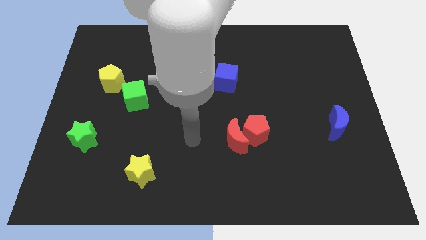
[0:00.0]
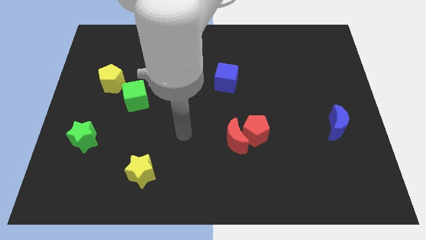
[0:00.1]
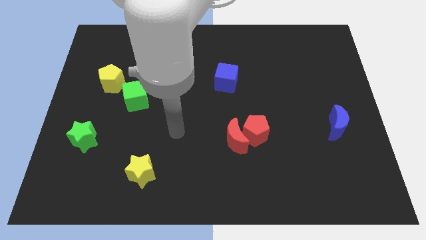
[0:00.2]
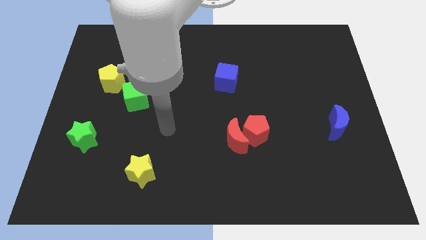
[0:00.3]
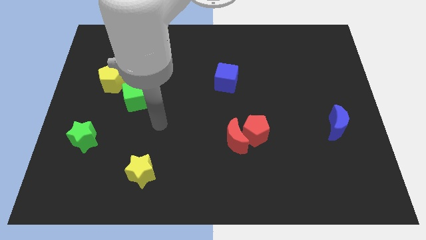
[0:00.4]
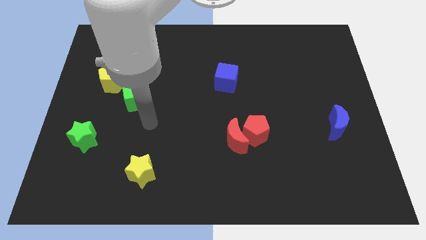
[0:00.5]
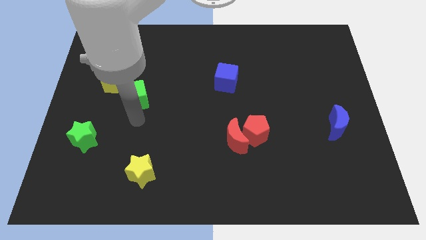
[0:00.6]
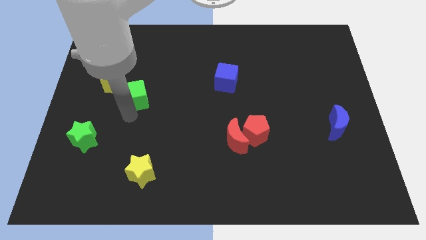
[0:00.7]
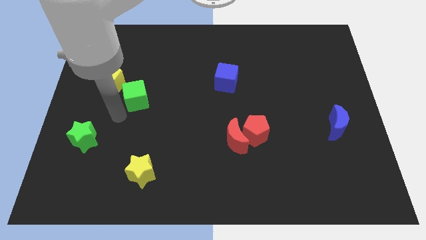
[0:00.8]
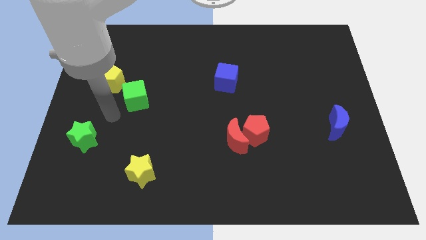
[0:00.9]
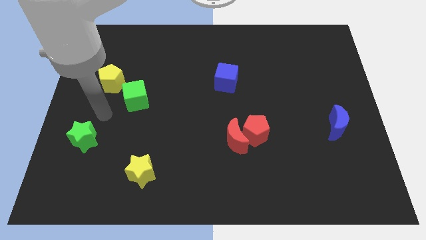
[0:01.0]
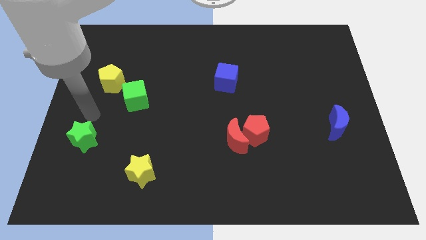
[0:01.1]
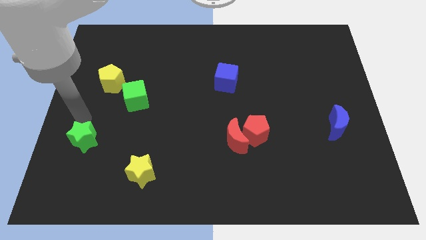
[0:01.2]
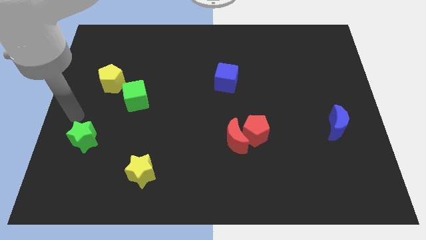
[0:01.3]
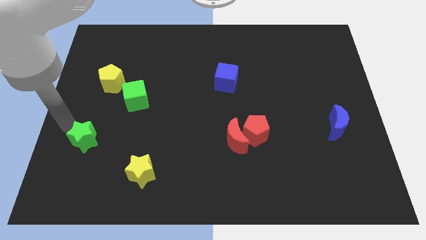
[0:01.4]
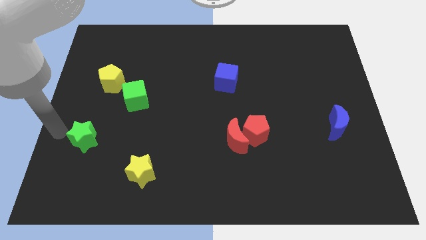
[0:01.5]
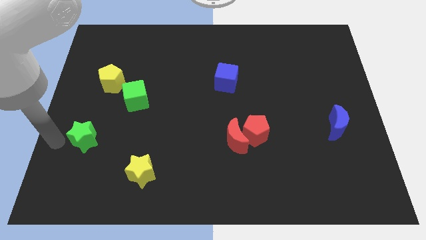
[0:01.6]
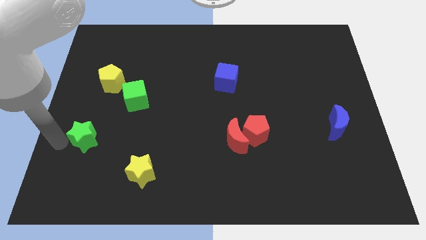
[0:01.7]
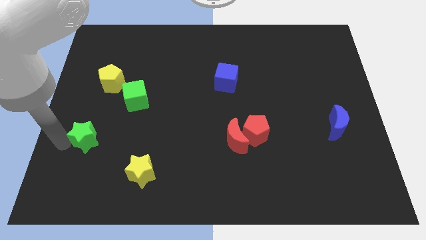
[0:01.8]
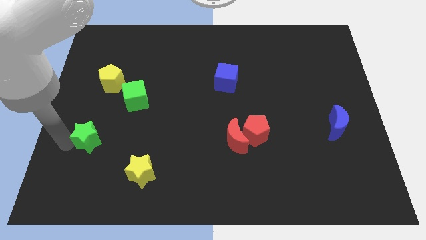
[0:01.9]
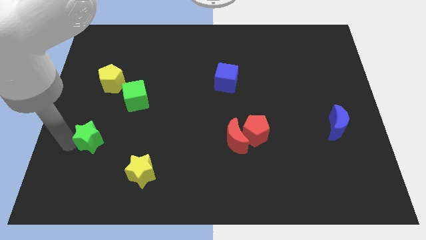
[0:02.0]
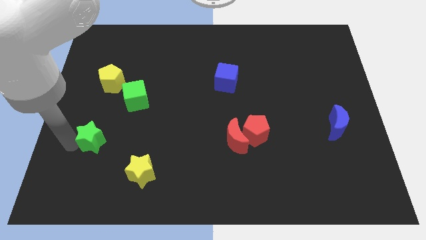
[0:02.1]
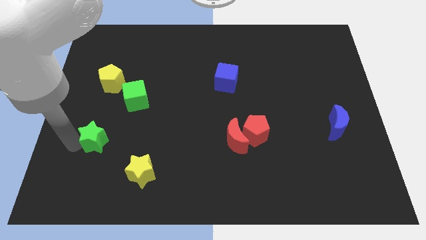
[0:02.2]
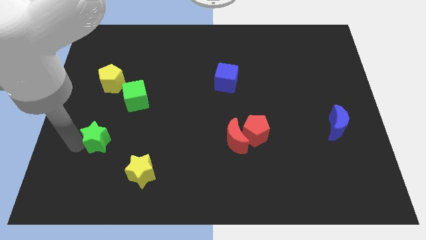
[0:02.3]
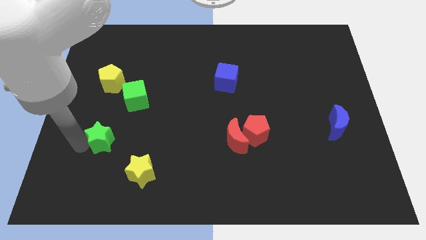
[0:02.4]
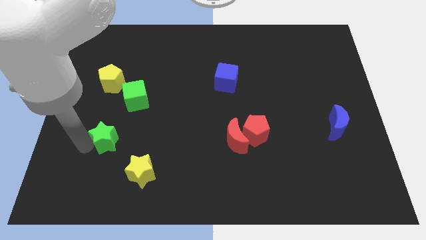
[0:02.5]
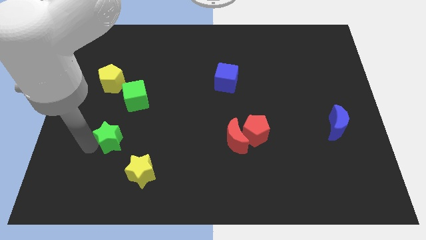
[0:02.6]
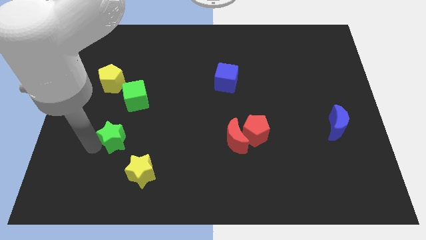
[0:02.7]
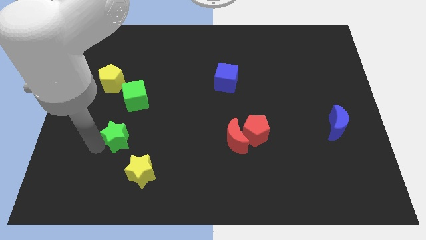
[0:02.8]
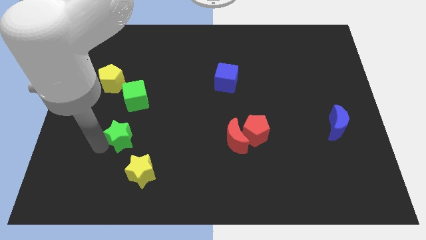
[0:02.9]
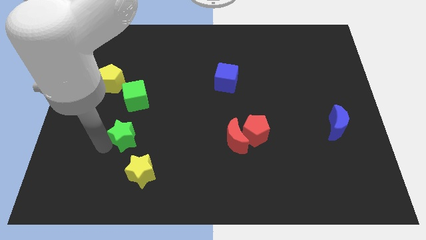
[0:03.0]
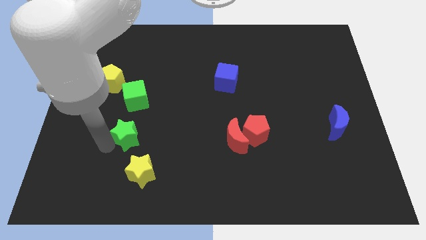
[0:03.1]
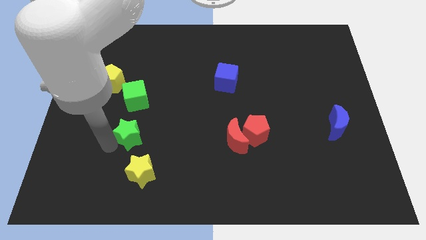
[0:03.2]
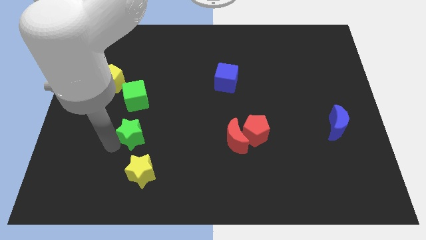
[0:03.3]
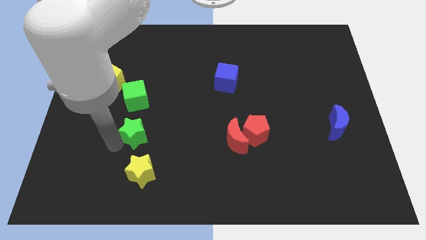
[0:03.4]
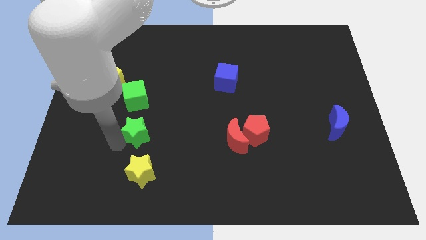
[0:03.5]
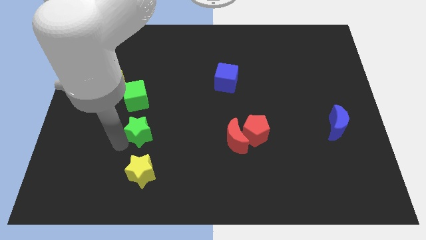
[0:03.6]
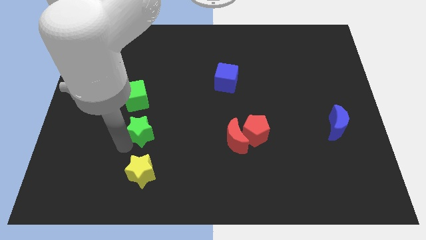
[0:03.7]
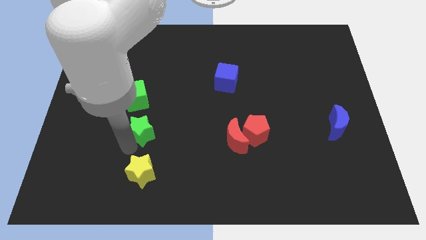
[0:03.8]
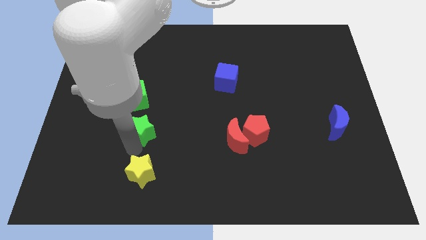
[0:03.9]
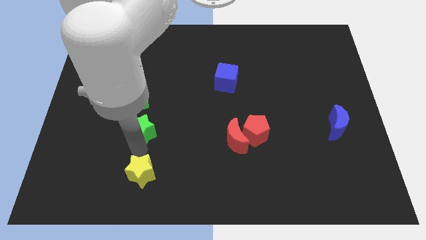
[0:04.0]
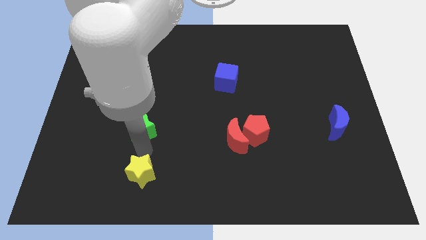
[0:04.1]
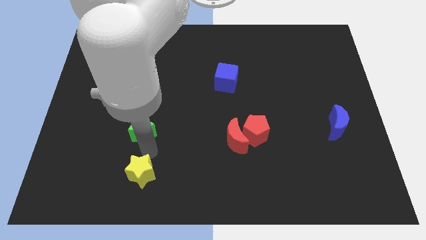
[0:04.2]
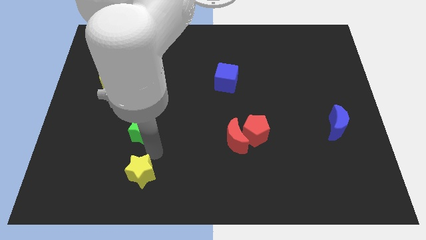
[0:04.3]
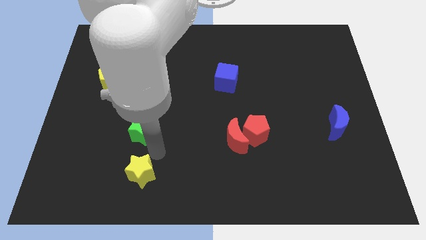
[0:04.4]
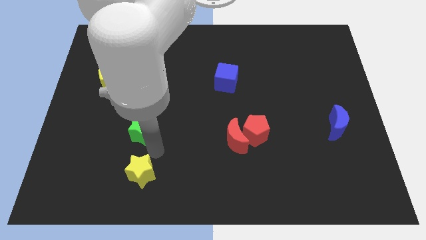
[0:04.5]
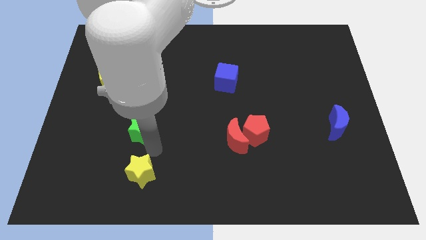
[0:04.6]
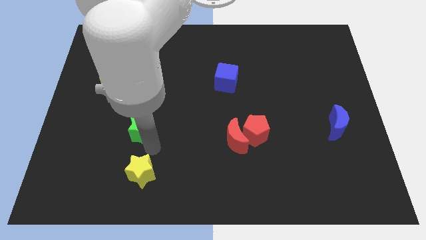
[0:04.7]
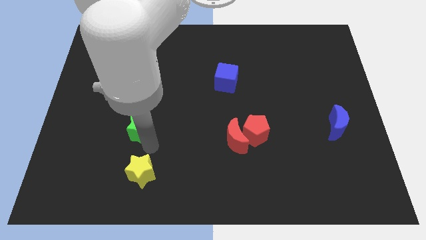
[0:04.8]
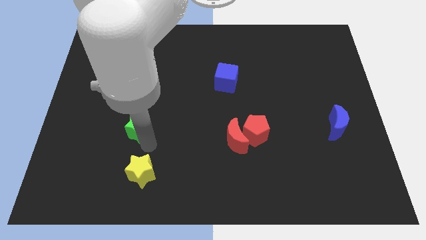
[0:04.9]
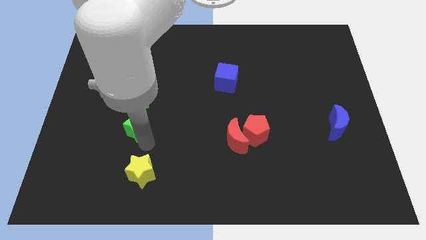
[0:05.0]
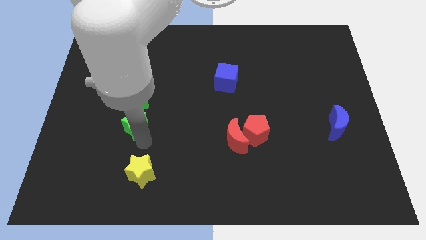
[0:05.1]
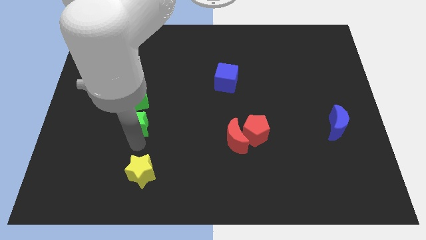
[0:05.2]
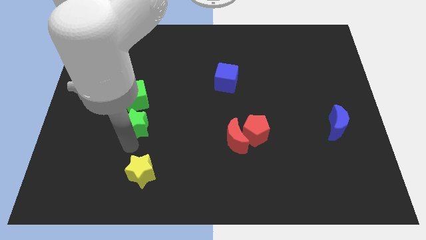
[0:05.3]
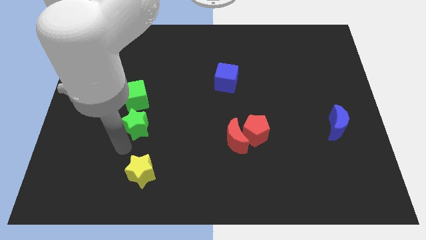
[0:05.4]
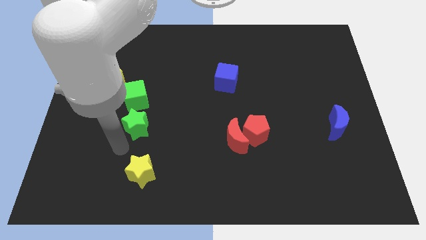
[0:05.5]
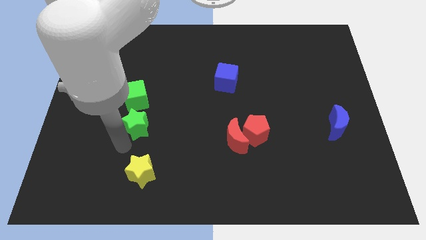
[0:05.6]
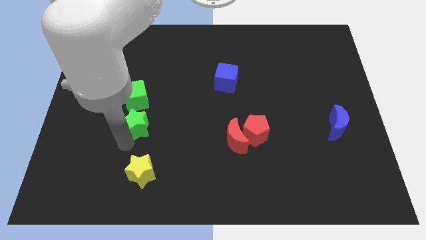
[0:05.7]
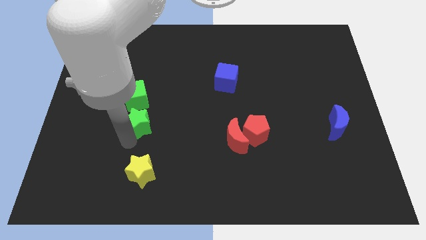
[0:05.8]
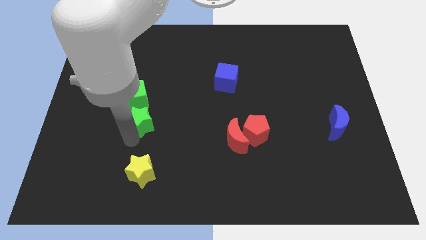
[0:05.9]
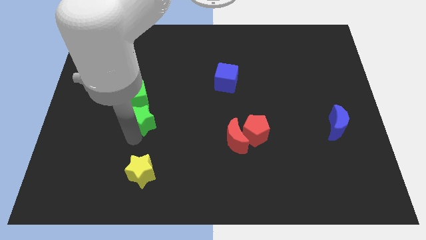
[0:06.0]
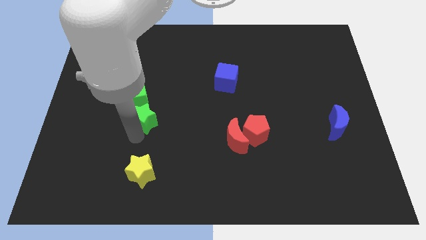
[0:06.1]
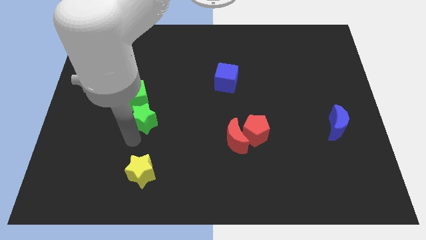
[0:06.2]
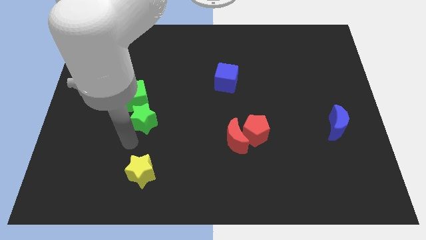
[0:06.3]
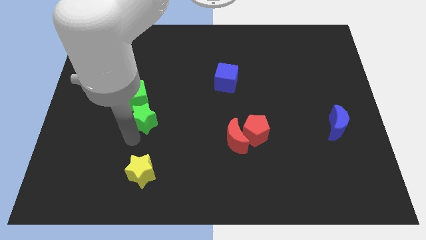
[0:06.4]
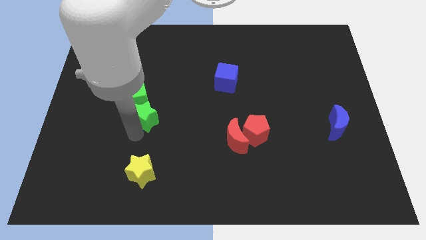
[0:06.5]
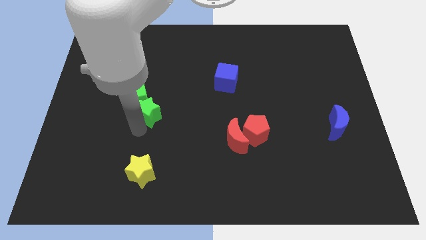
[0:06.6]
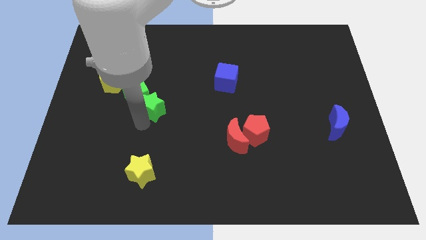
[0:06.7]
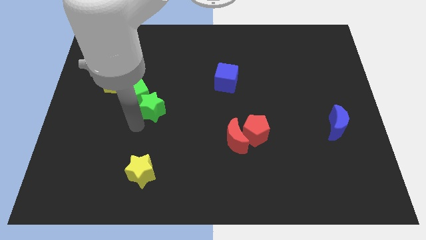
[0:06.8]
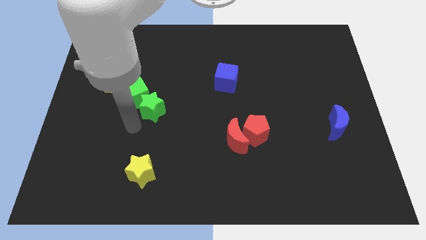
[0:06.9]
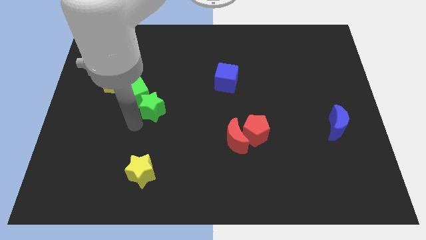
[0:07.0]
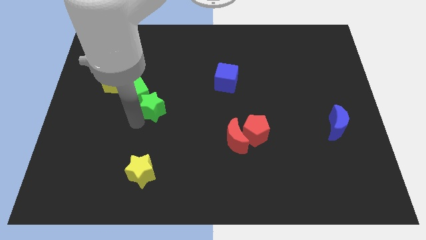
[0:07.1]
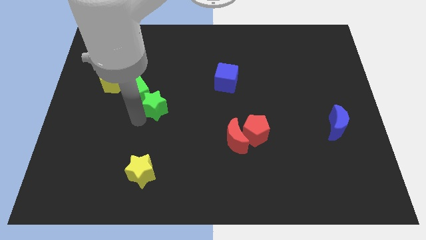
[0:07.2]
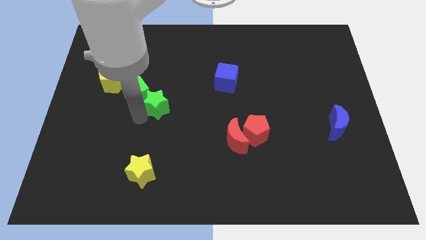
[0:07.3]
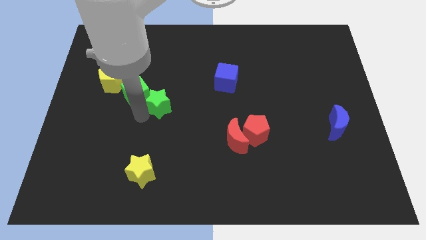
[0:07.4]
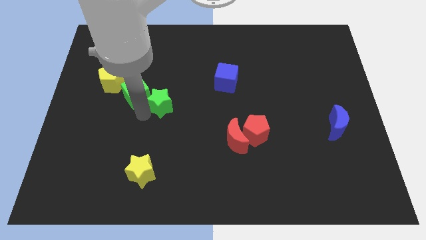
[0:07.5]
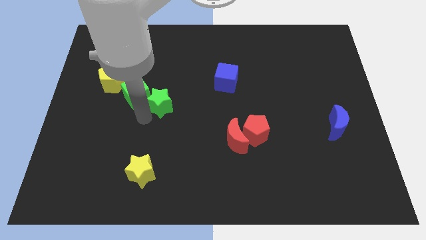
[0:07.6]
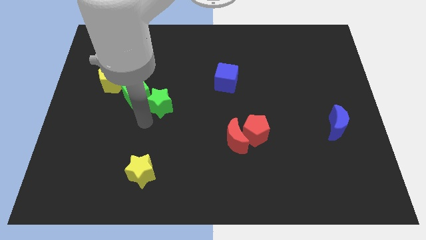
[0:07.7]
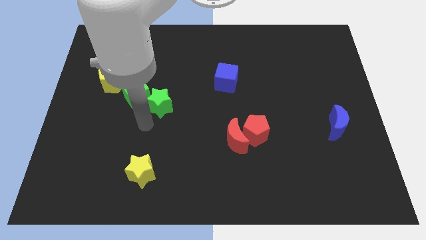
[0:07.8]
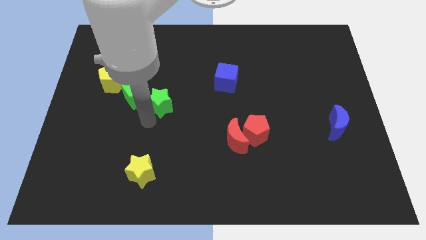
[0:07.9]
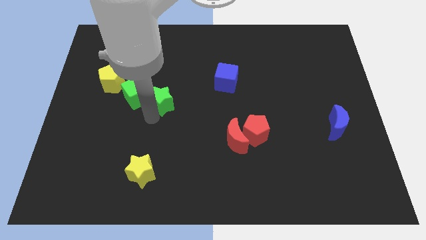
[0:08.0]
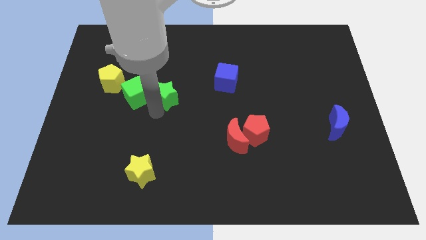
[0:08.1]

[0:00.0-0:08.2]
slide the green star upwards and then right
